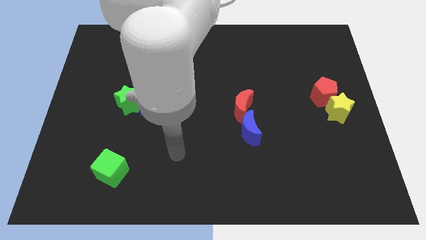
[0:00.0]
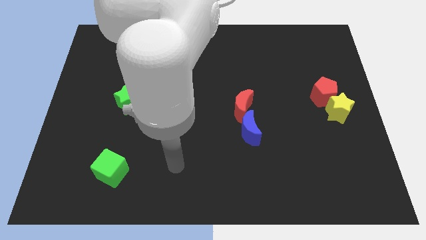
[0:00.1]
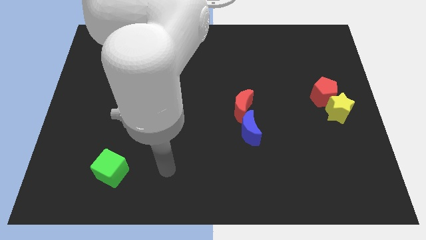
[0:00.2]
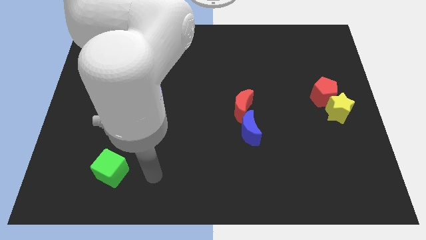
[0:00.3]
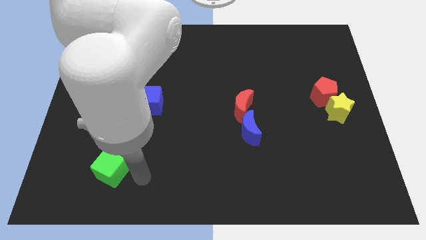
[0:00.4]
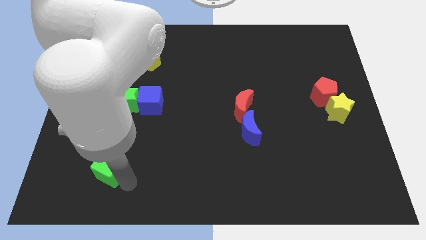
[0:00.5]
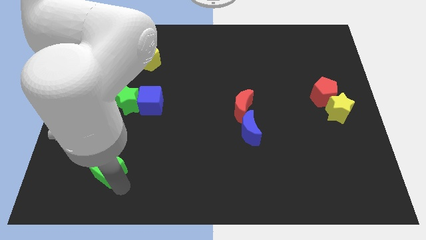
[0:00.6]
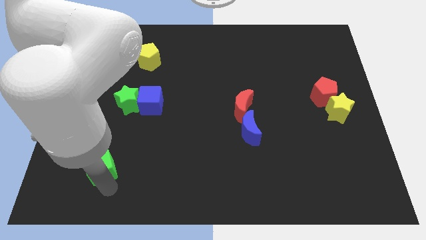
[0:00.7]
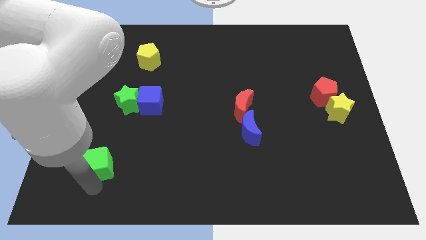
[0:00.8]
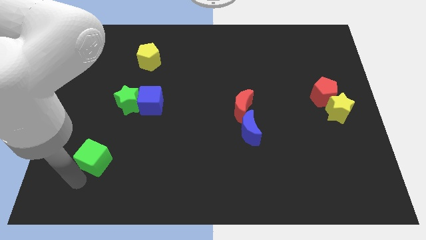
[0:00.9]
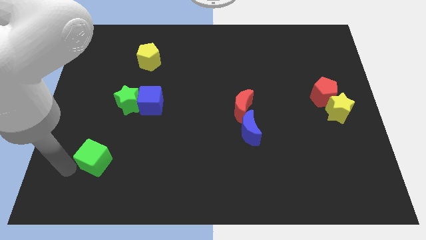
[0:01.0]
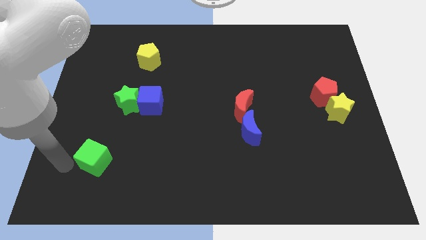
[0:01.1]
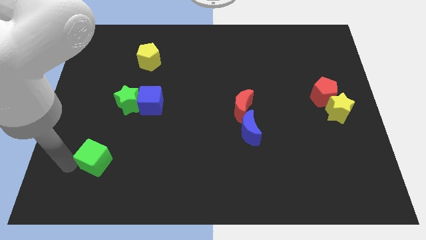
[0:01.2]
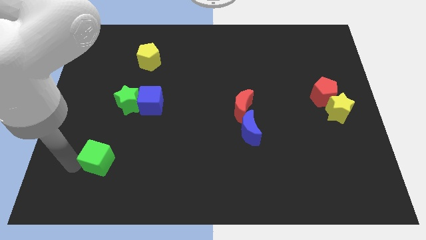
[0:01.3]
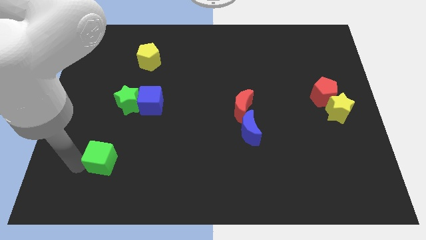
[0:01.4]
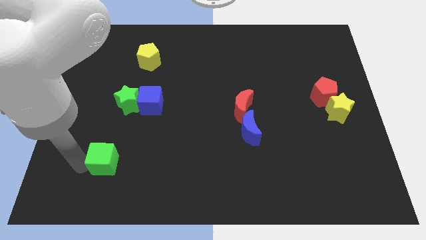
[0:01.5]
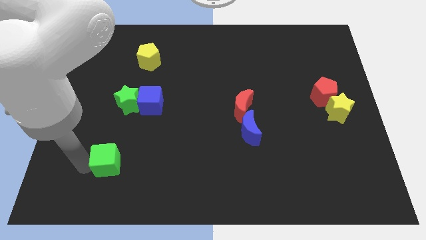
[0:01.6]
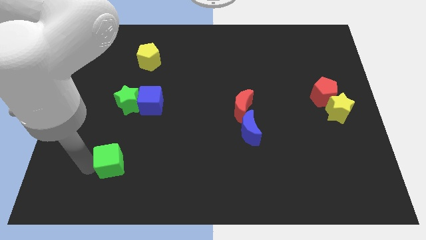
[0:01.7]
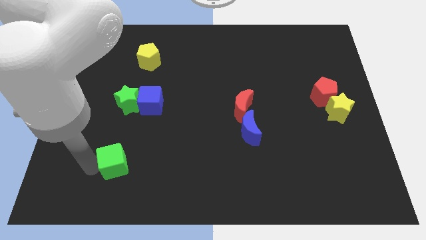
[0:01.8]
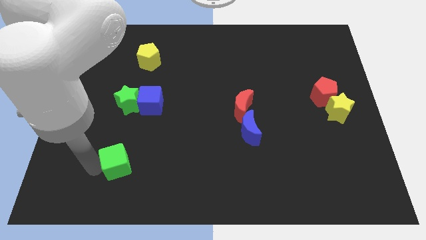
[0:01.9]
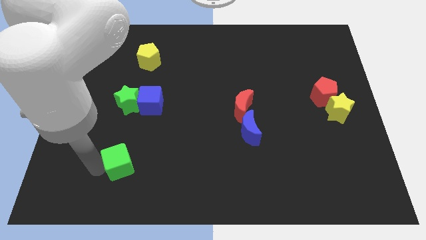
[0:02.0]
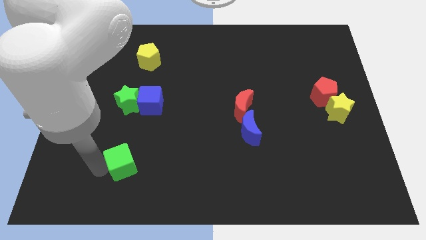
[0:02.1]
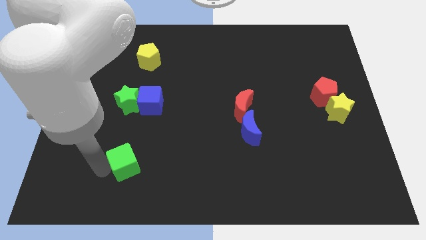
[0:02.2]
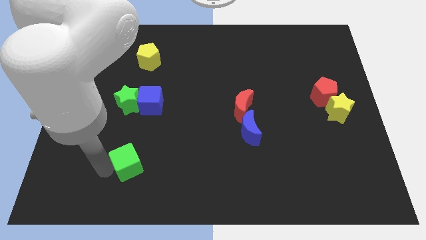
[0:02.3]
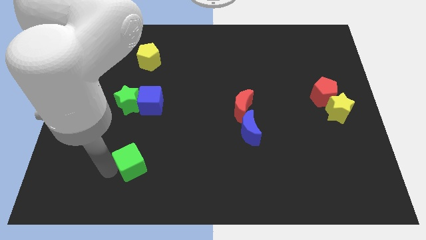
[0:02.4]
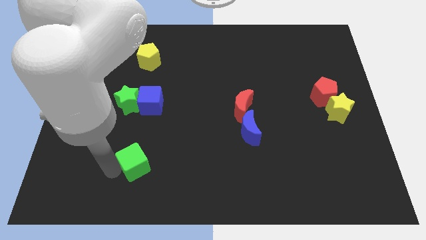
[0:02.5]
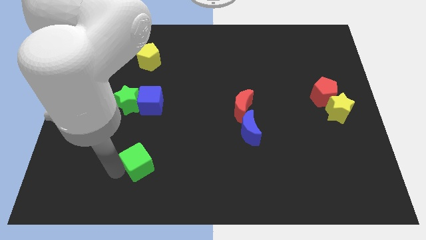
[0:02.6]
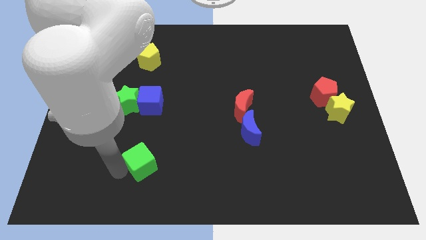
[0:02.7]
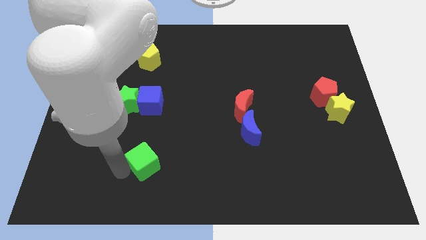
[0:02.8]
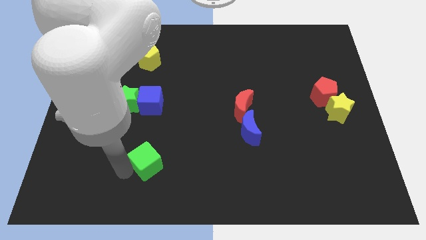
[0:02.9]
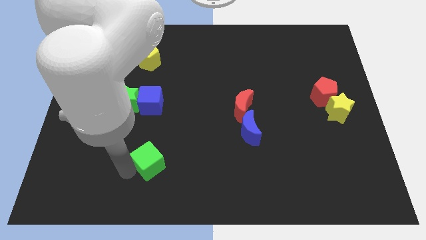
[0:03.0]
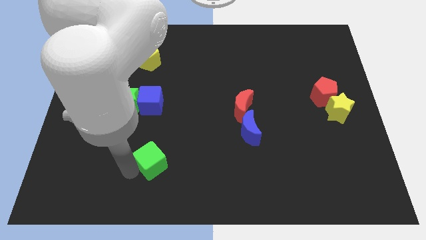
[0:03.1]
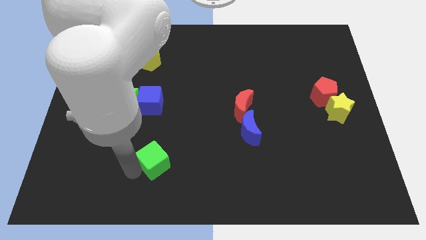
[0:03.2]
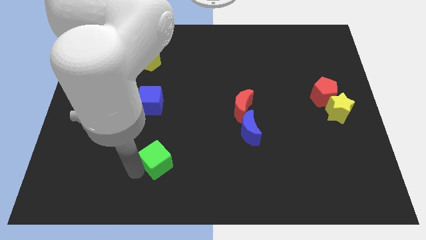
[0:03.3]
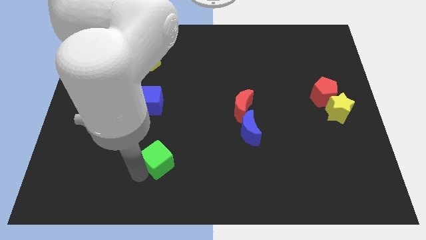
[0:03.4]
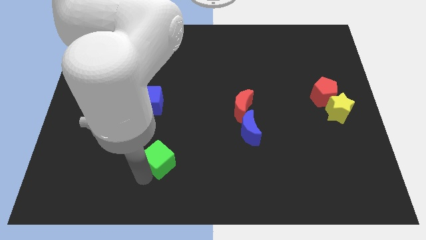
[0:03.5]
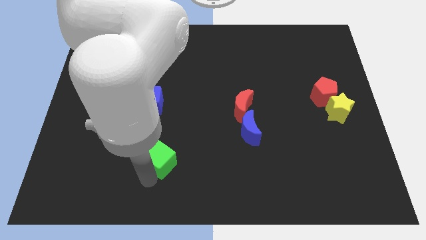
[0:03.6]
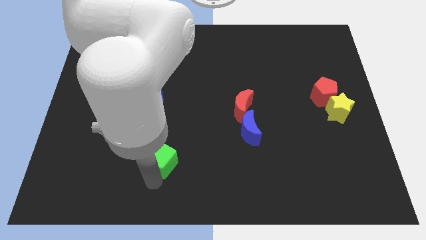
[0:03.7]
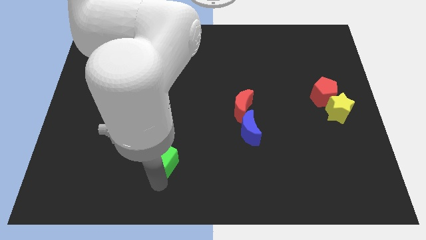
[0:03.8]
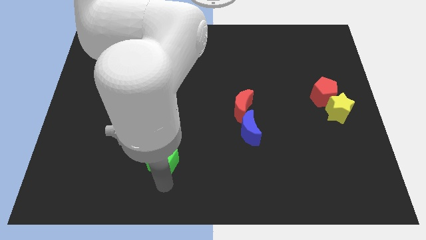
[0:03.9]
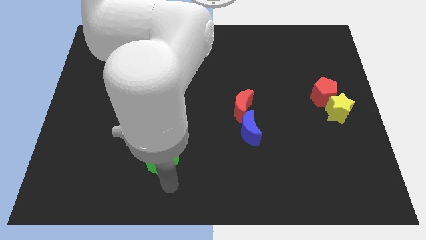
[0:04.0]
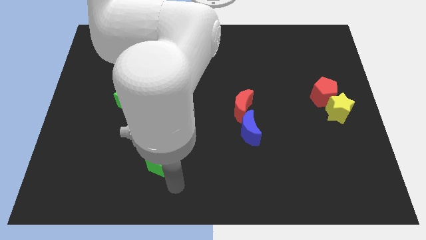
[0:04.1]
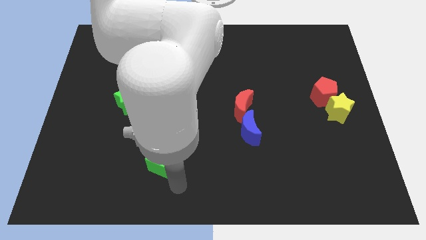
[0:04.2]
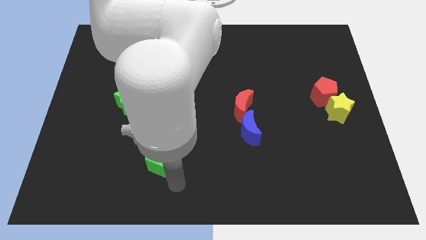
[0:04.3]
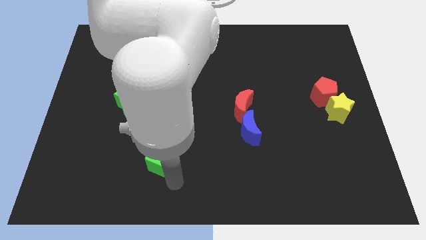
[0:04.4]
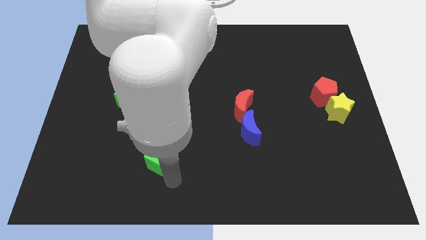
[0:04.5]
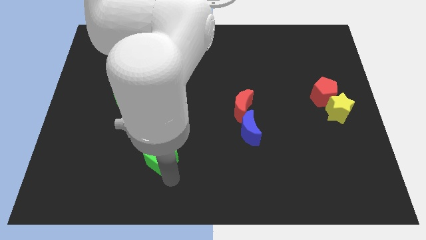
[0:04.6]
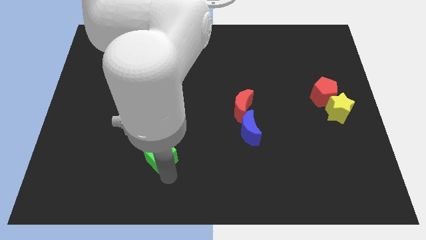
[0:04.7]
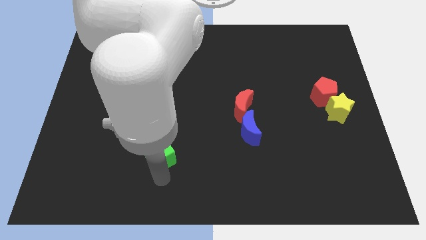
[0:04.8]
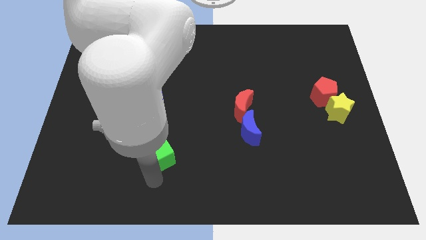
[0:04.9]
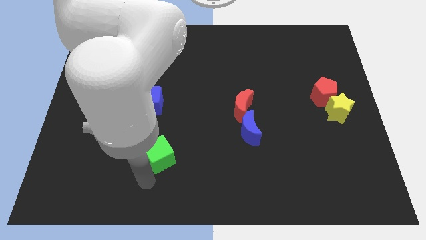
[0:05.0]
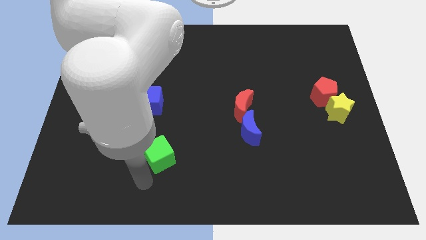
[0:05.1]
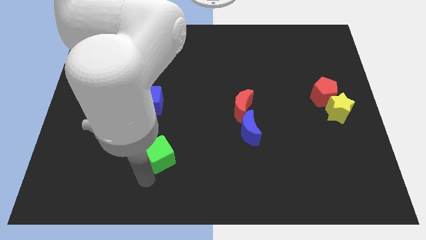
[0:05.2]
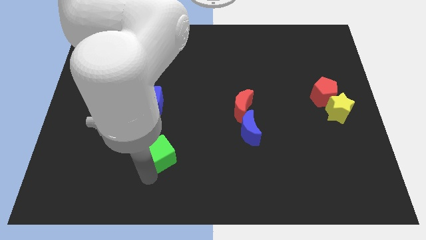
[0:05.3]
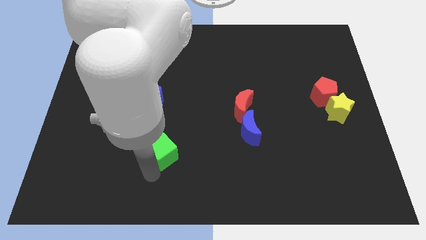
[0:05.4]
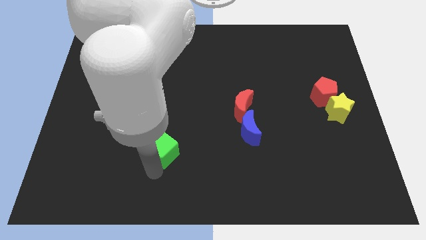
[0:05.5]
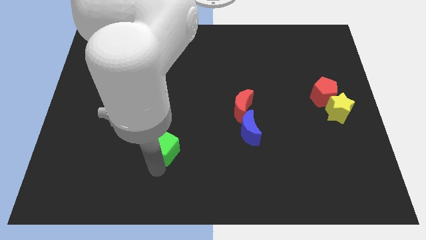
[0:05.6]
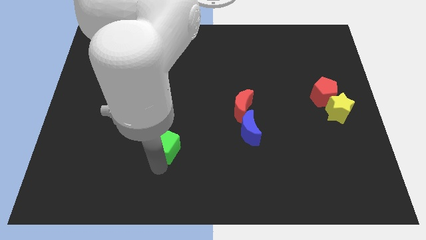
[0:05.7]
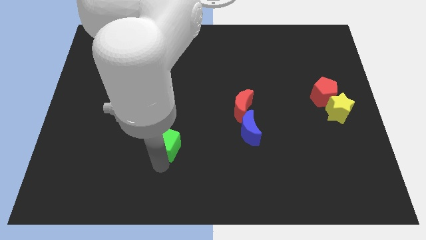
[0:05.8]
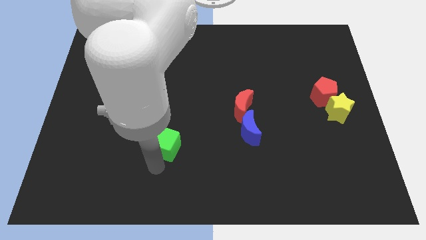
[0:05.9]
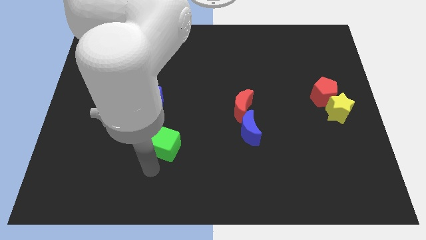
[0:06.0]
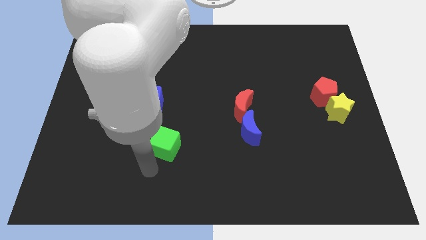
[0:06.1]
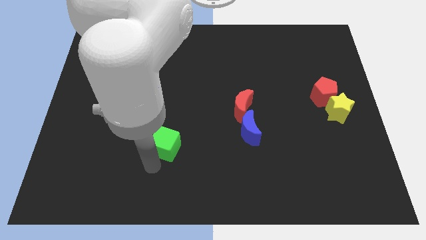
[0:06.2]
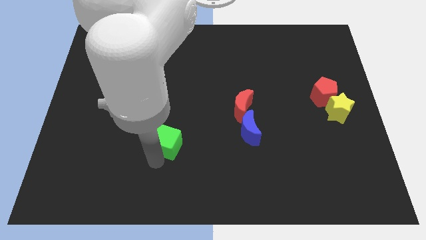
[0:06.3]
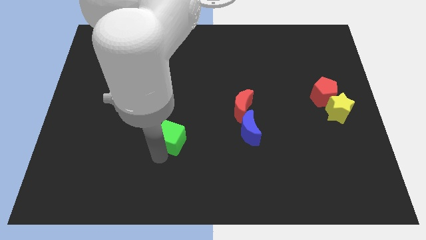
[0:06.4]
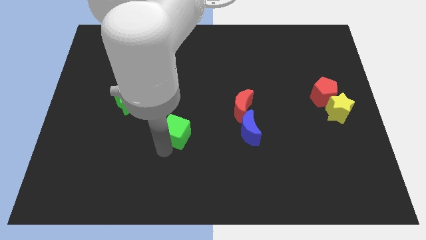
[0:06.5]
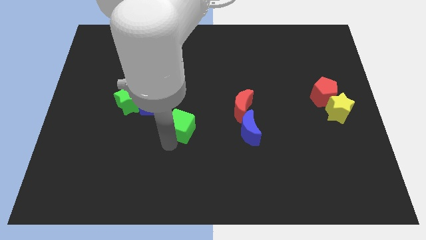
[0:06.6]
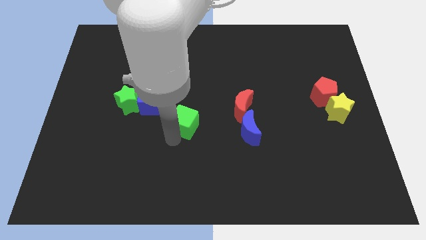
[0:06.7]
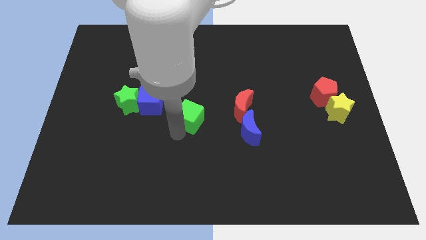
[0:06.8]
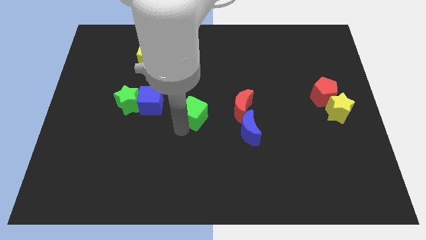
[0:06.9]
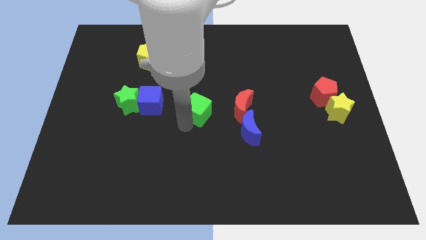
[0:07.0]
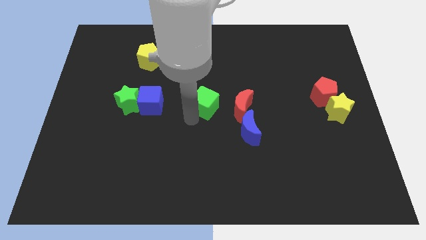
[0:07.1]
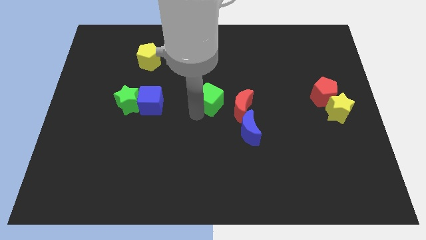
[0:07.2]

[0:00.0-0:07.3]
slide the green cube to the top left side of the red moon
